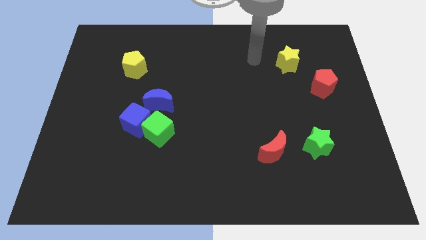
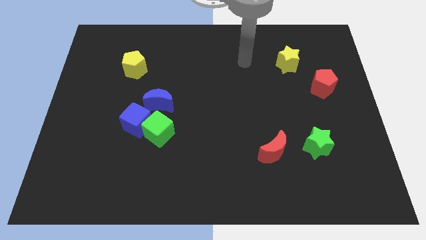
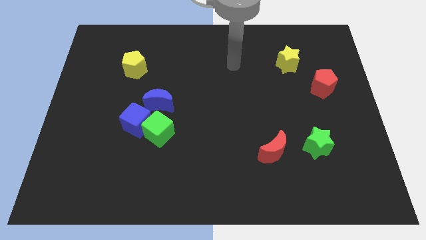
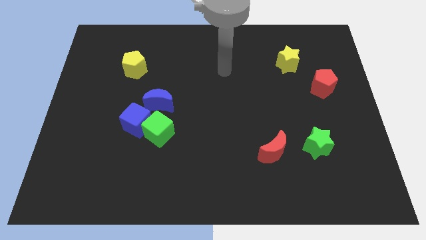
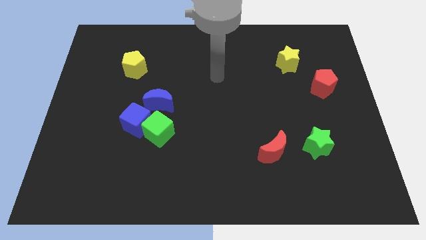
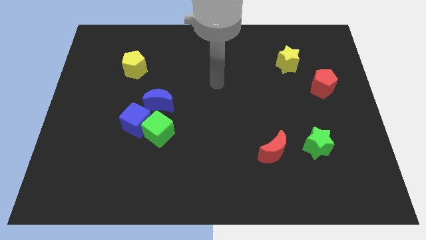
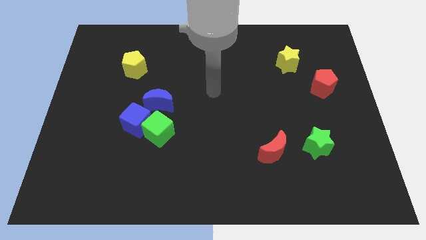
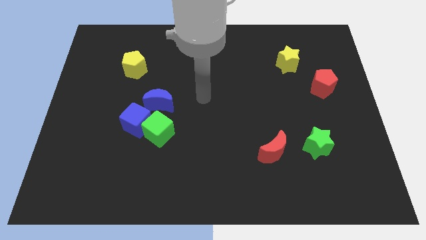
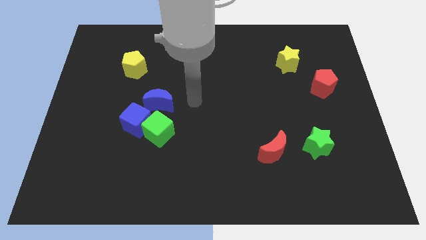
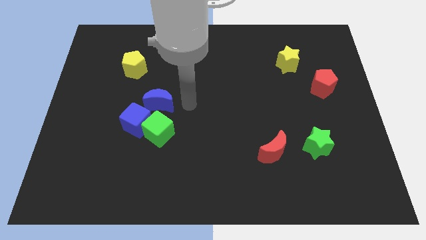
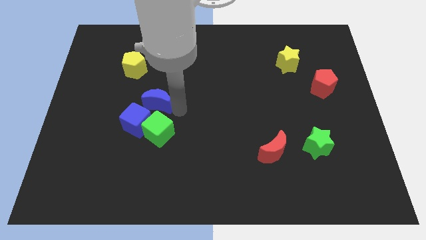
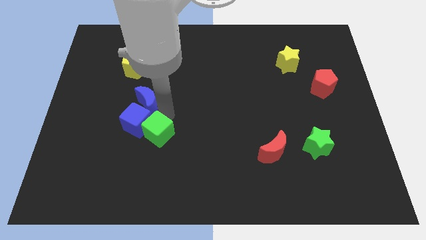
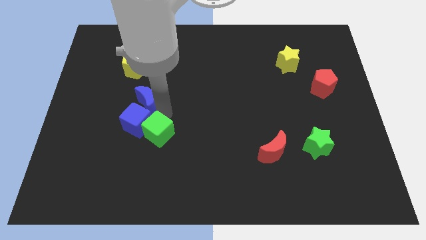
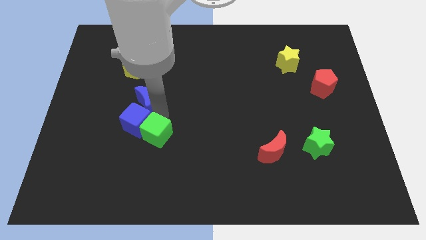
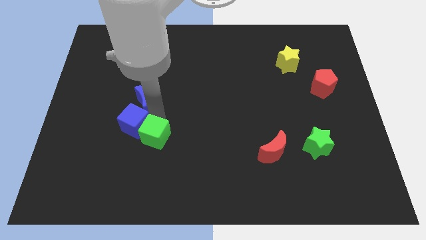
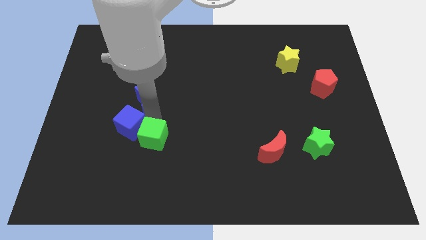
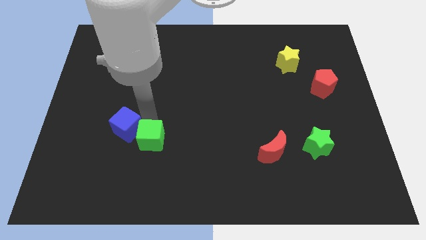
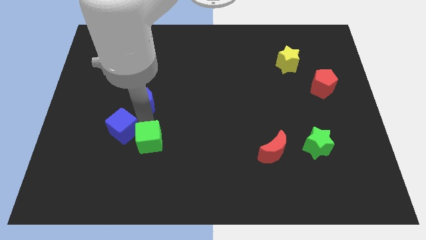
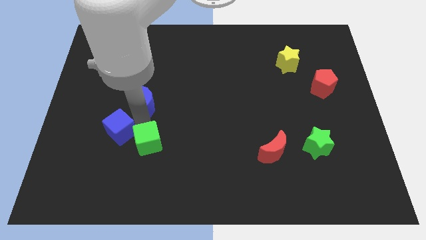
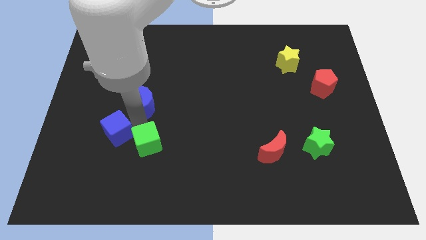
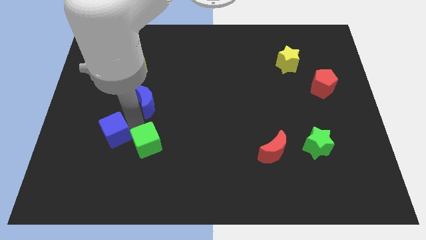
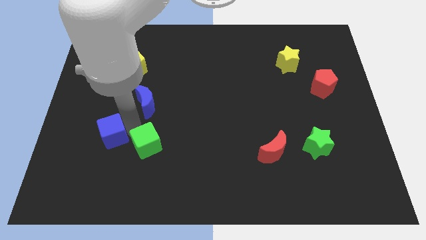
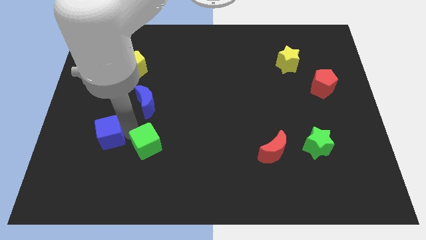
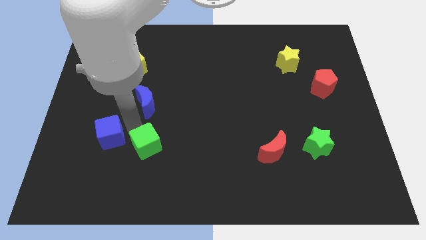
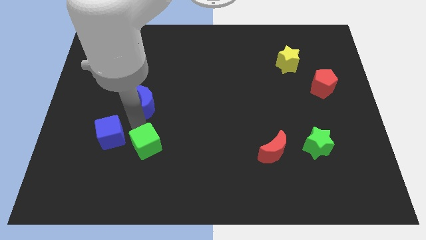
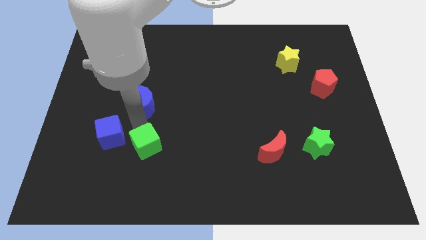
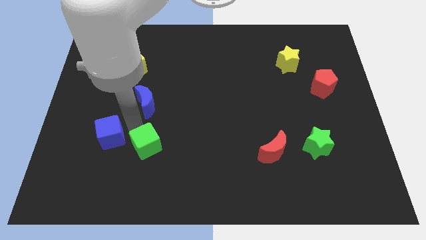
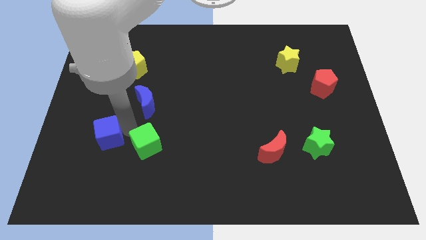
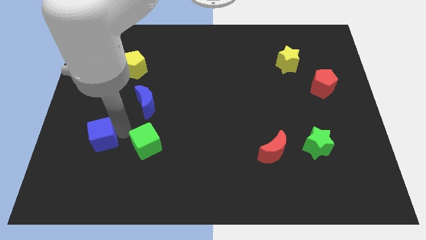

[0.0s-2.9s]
pull the blue cube apart from the green cube and blue moon

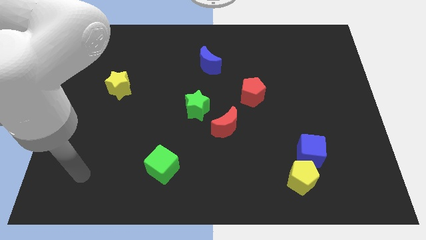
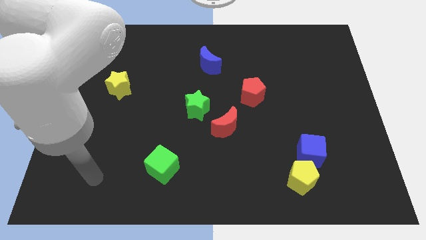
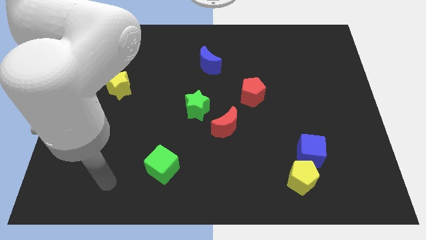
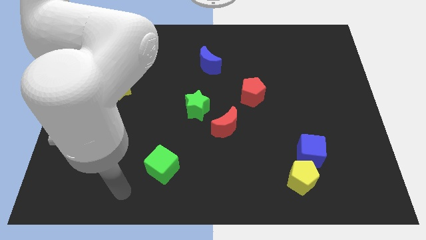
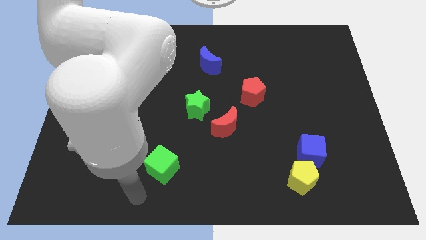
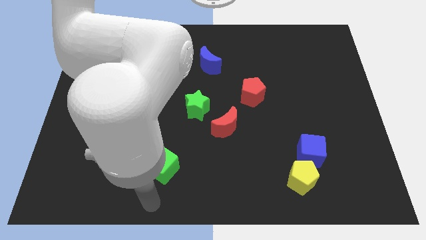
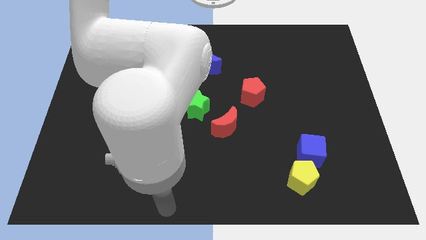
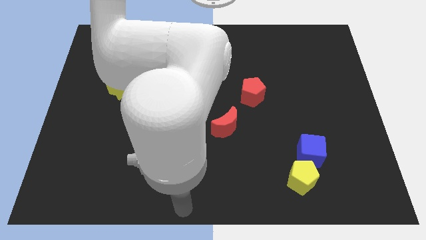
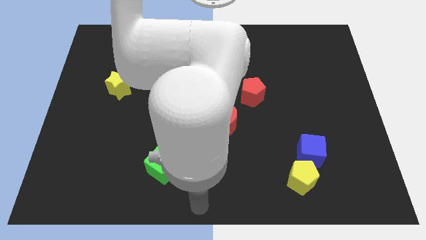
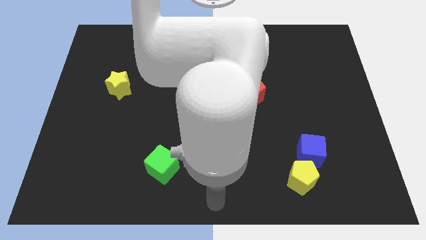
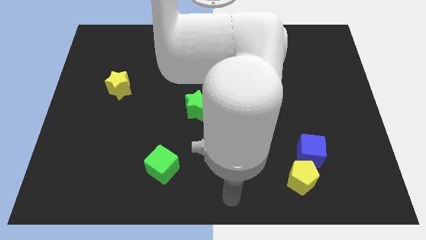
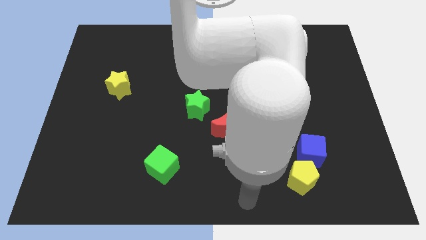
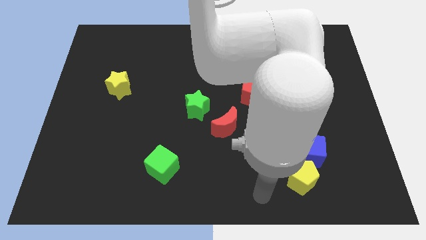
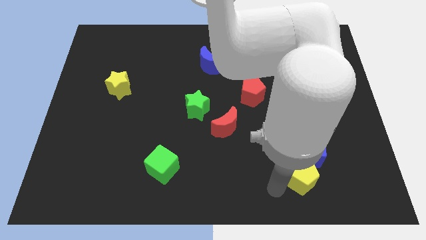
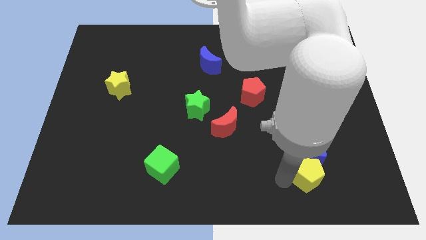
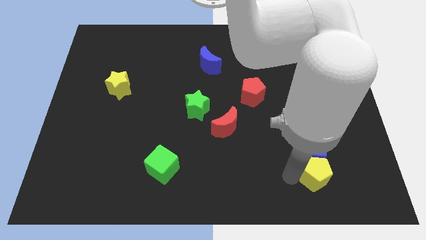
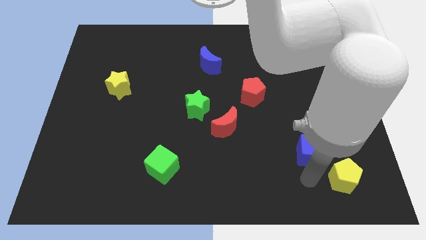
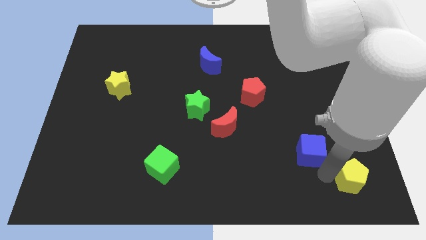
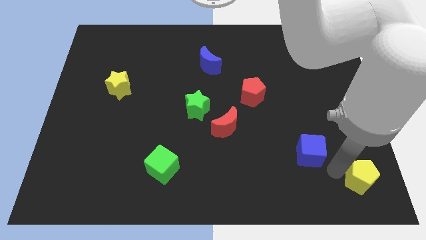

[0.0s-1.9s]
move the blue cube away from the yellow pentagon

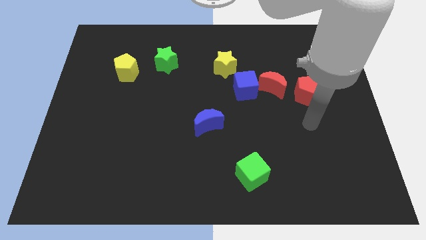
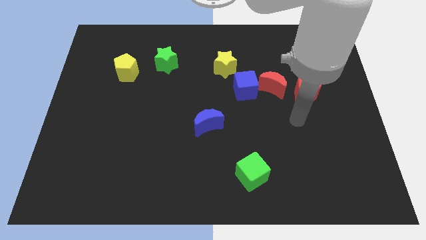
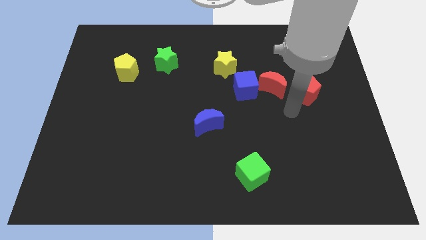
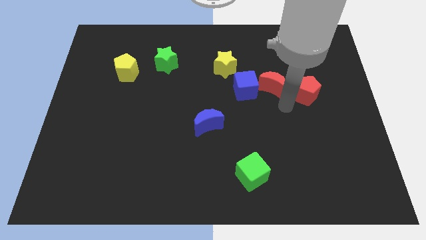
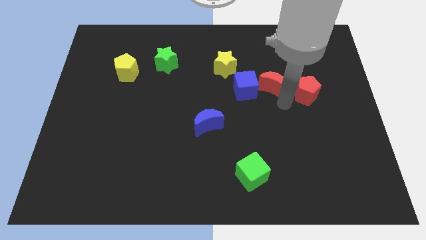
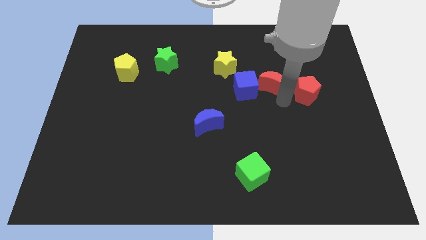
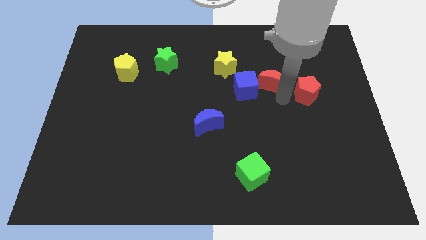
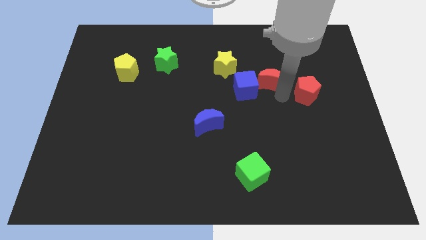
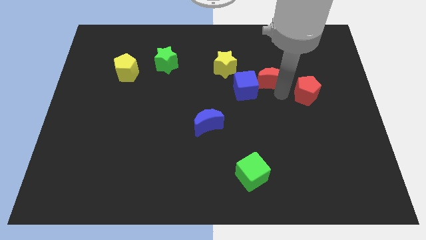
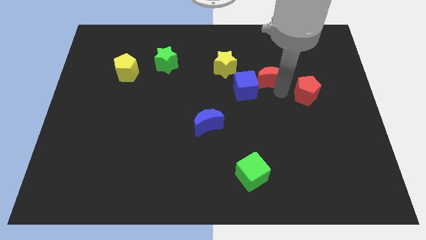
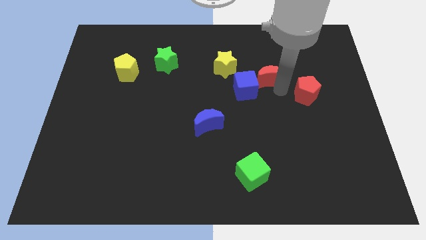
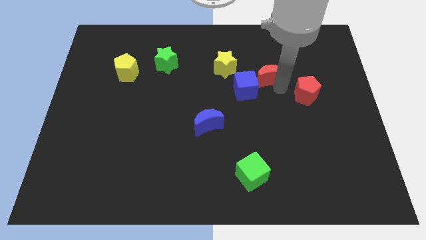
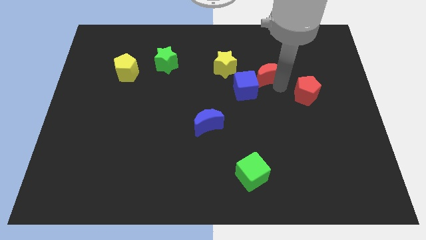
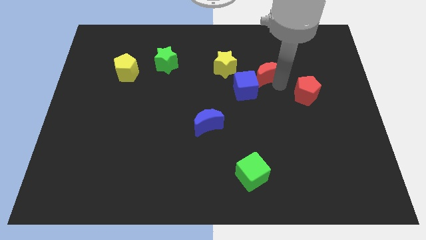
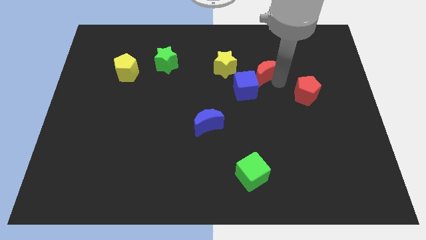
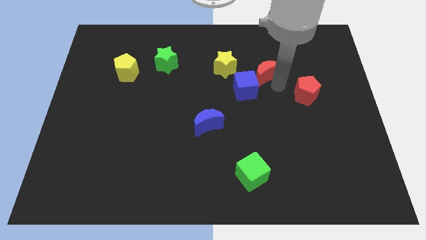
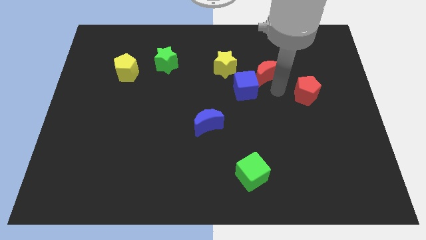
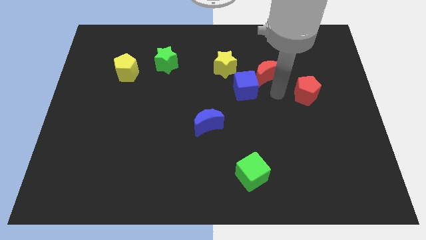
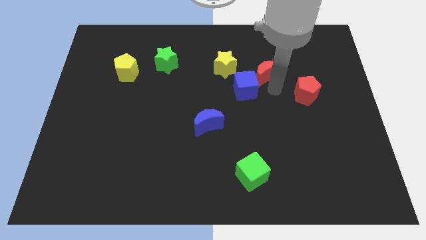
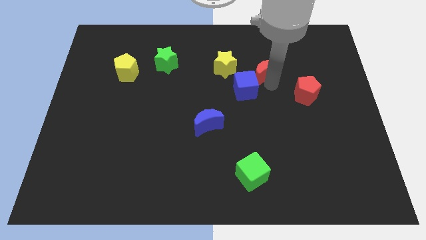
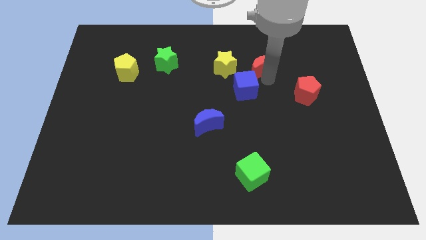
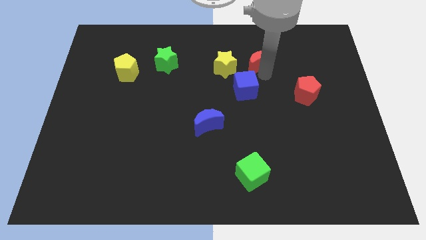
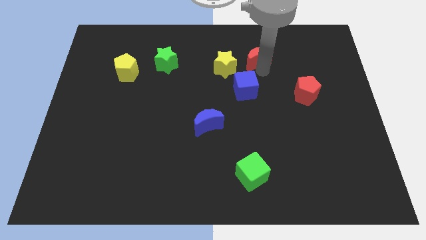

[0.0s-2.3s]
separate the red moon from the blue cube and red pentagon

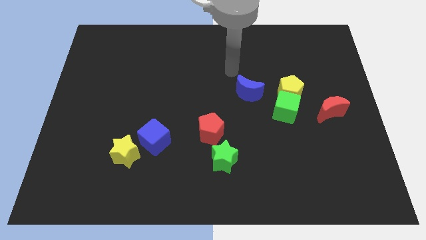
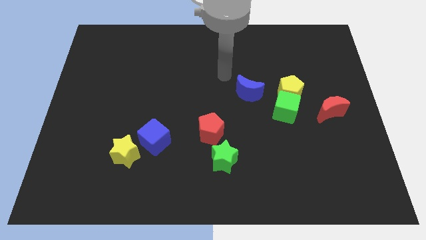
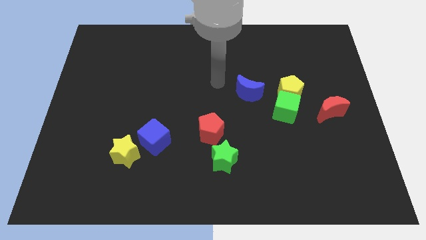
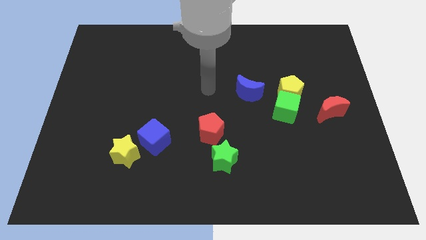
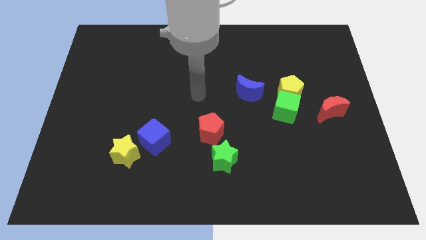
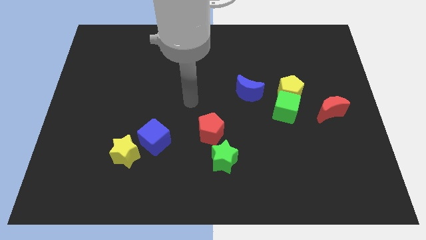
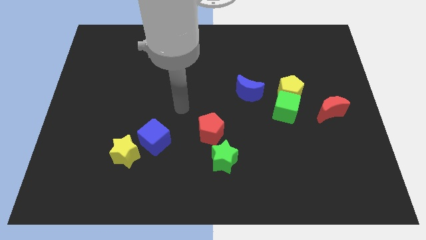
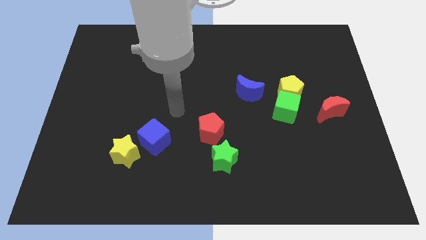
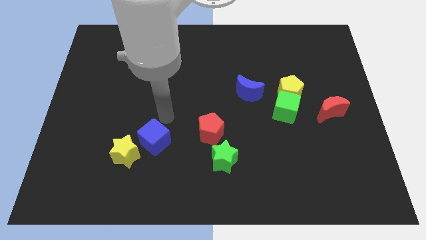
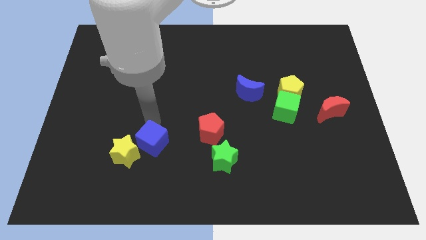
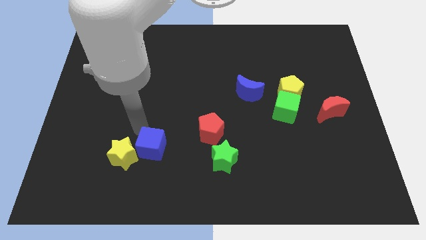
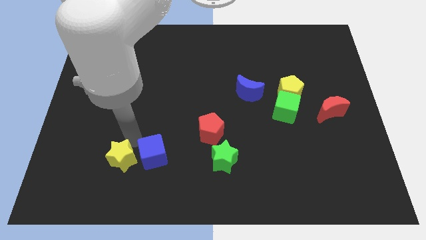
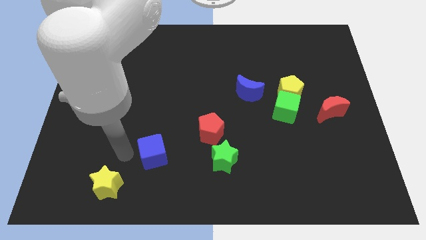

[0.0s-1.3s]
separate the blue cube from the yellow star

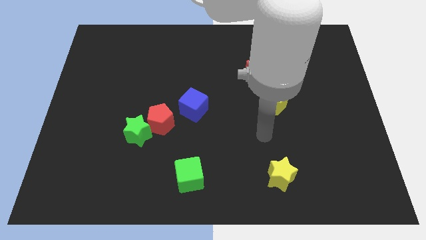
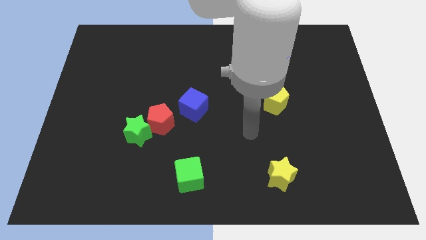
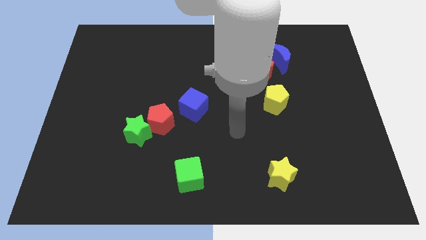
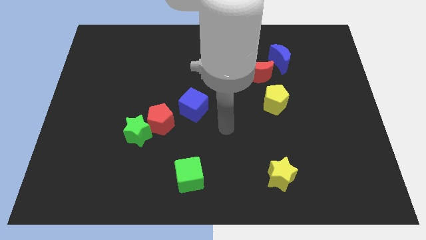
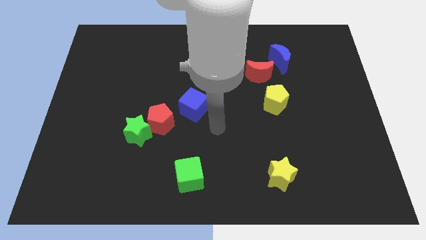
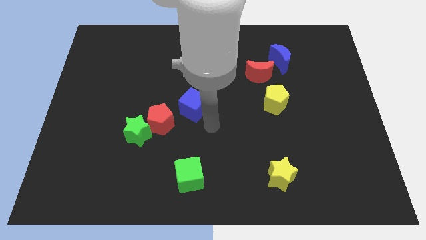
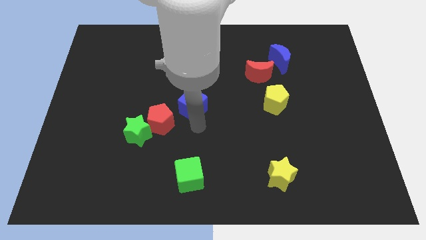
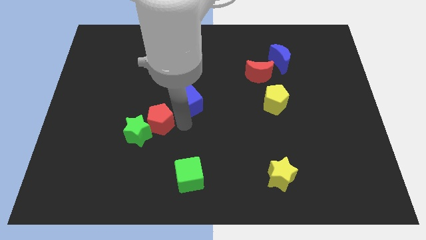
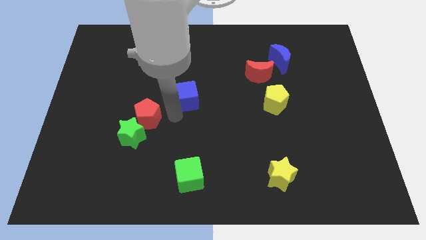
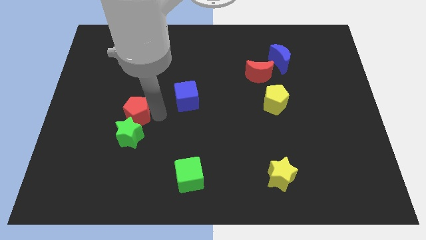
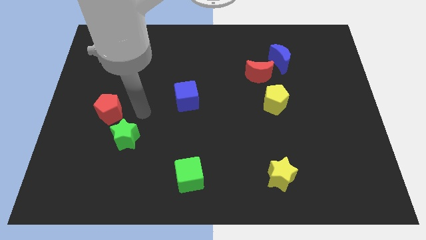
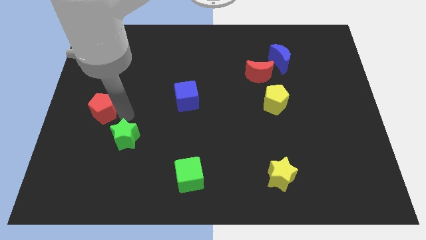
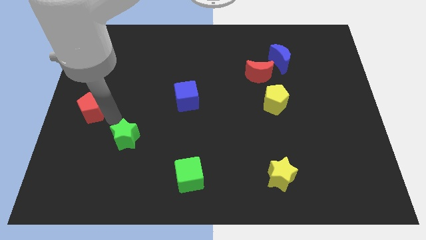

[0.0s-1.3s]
move the green star away from the red pentagon
